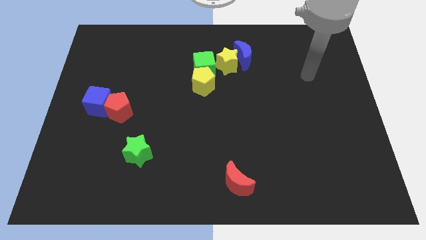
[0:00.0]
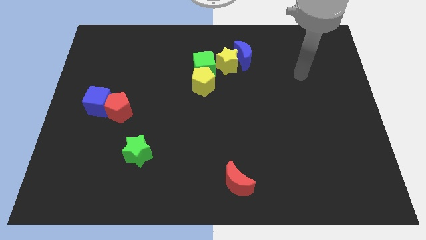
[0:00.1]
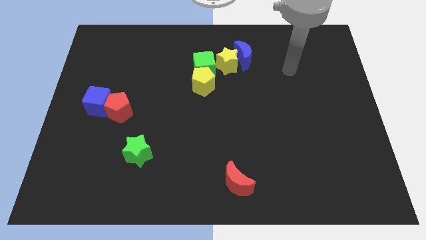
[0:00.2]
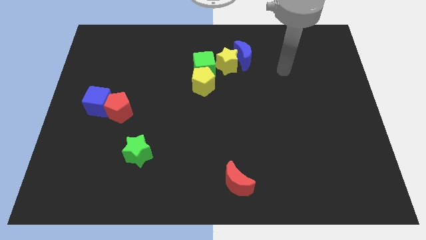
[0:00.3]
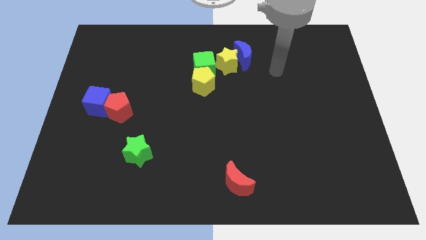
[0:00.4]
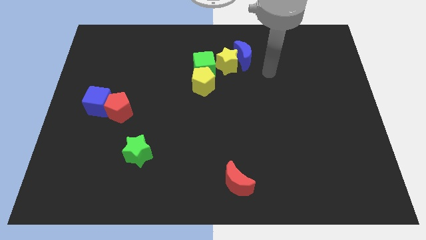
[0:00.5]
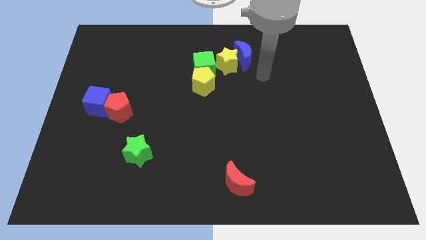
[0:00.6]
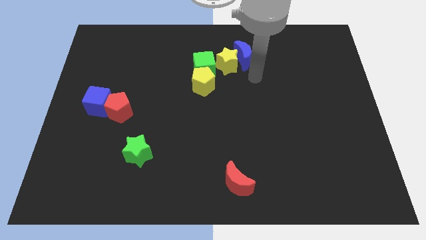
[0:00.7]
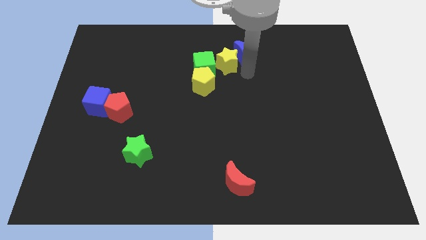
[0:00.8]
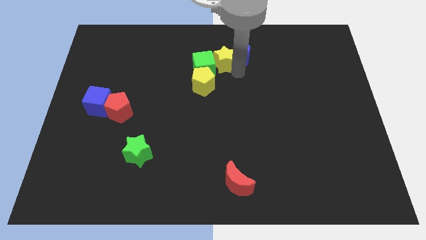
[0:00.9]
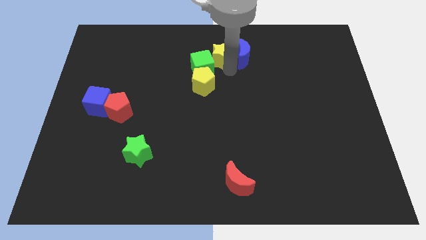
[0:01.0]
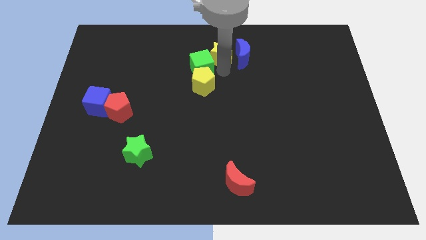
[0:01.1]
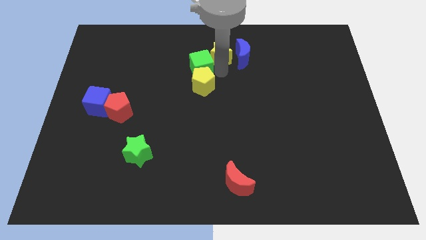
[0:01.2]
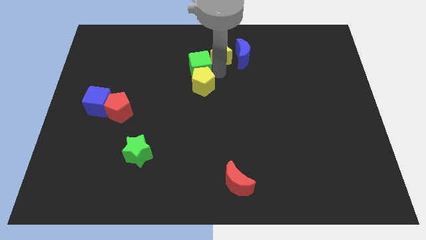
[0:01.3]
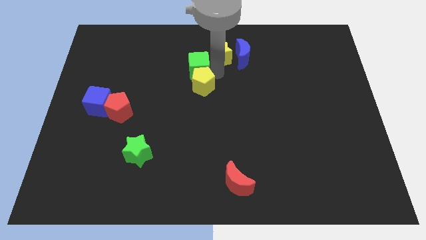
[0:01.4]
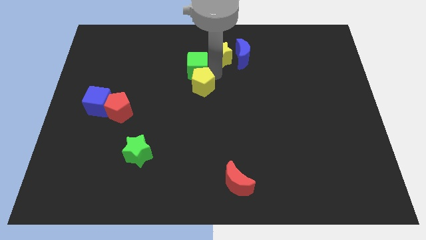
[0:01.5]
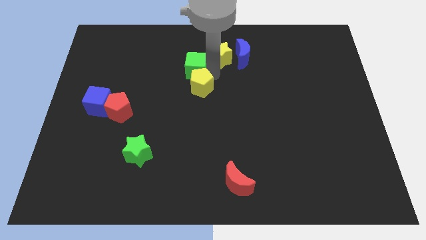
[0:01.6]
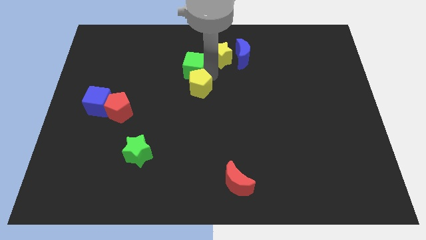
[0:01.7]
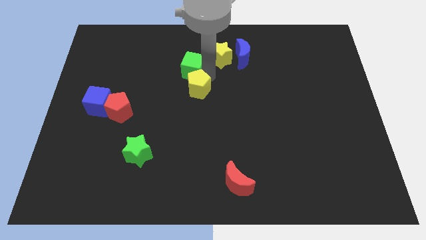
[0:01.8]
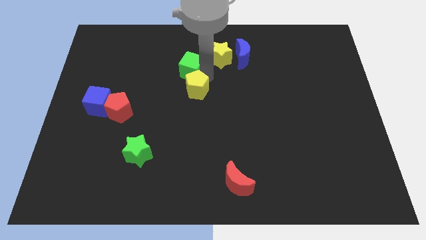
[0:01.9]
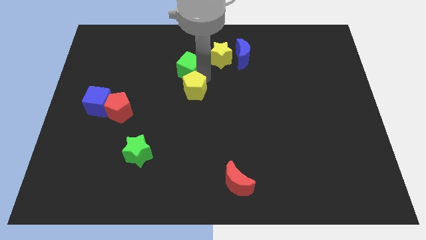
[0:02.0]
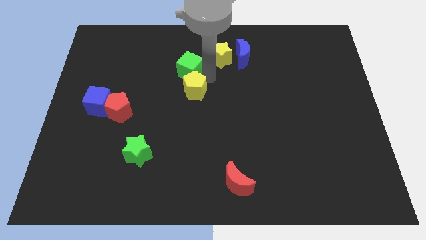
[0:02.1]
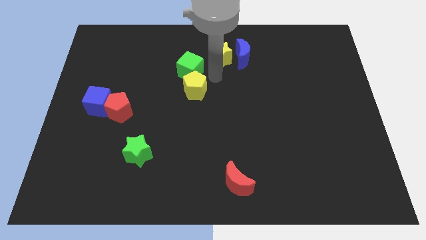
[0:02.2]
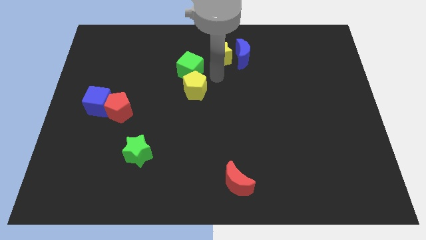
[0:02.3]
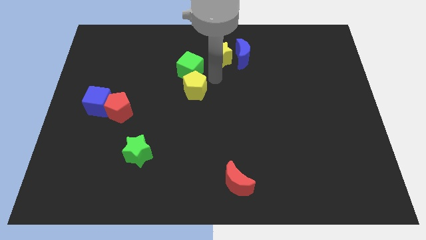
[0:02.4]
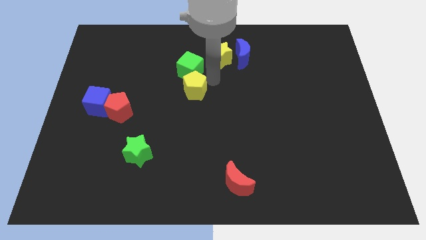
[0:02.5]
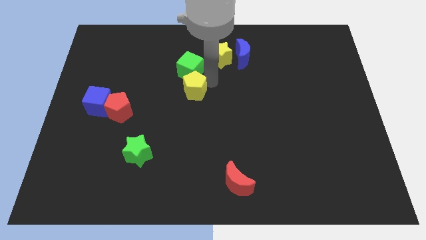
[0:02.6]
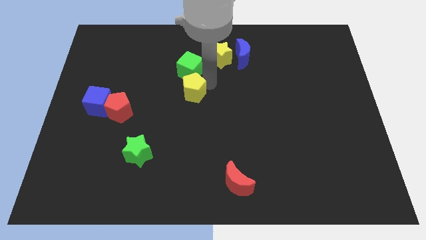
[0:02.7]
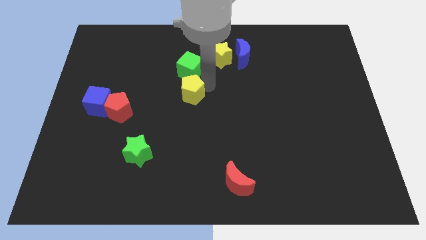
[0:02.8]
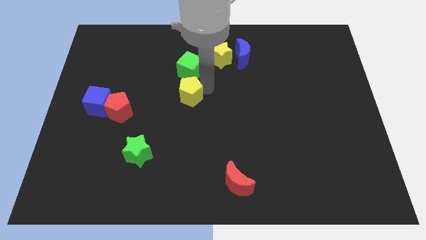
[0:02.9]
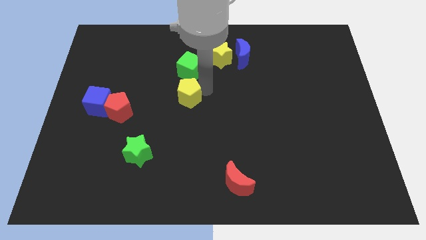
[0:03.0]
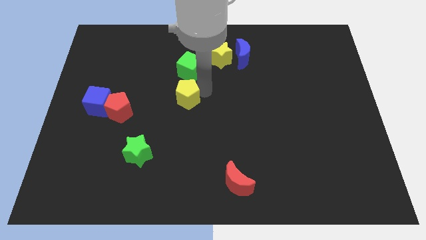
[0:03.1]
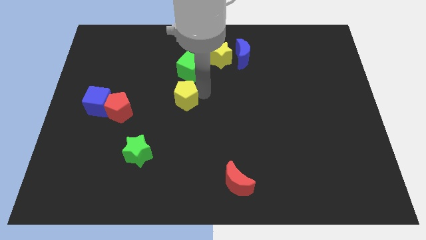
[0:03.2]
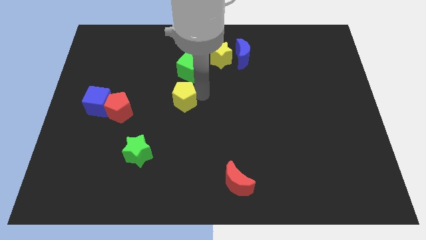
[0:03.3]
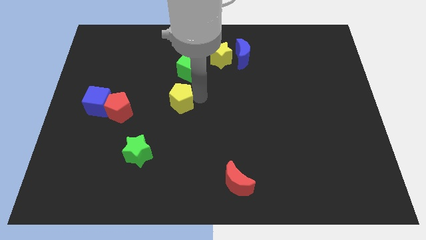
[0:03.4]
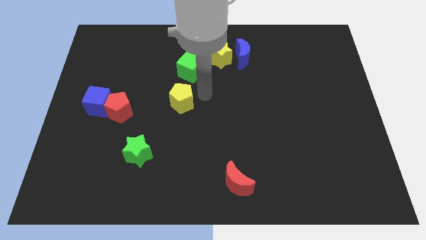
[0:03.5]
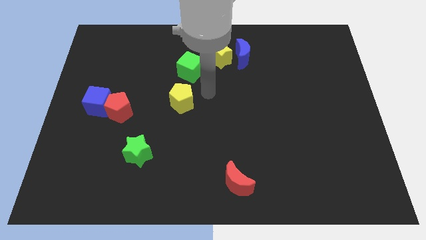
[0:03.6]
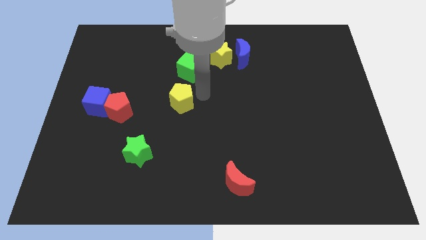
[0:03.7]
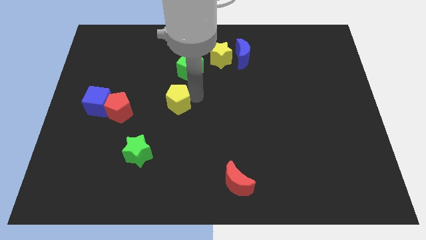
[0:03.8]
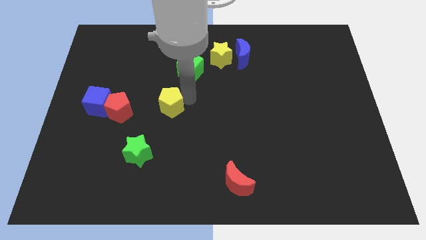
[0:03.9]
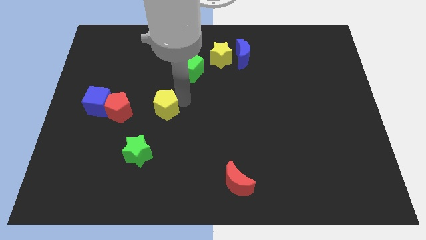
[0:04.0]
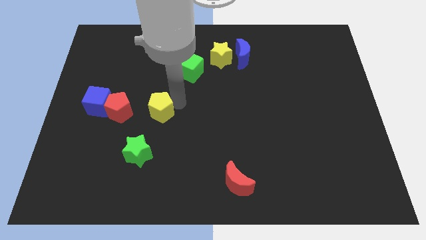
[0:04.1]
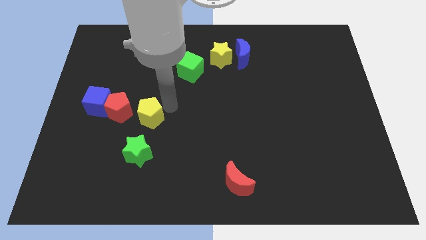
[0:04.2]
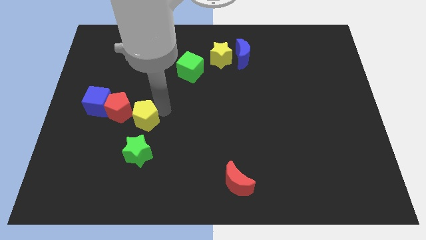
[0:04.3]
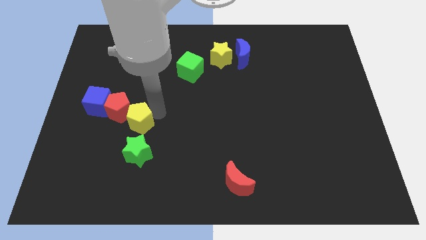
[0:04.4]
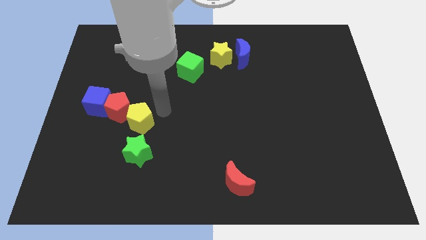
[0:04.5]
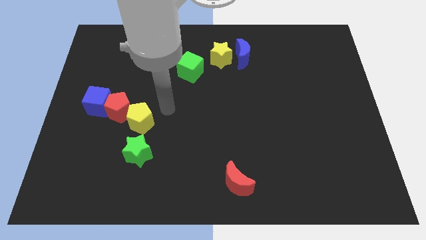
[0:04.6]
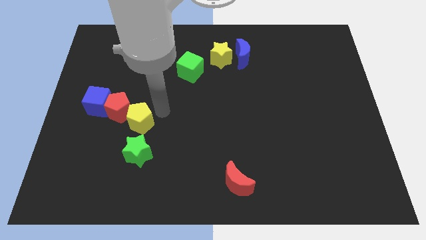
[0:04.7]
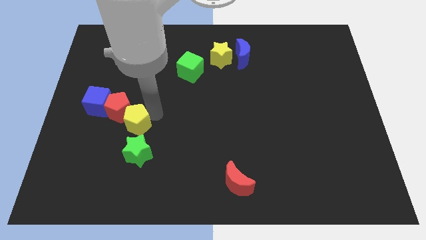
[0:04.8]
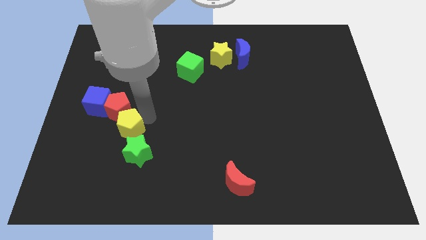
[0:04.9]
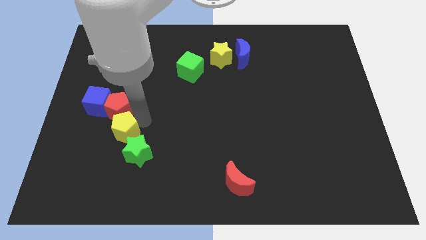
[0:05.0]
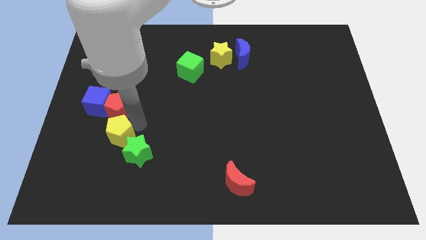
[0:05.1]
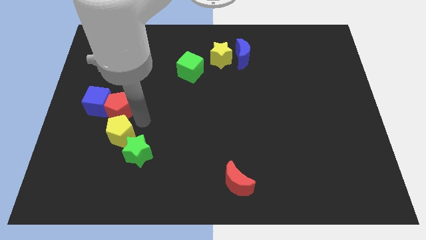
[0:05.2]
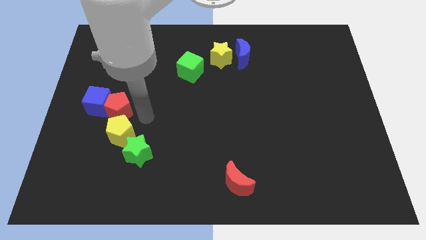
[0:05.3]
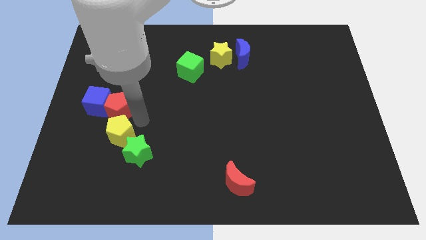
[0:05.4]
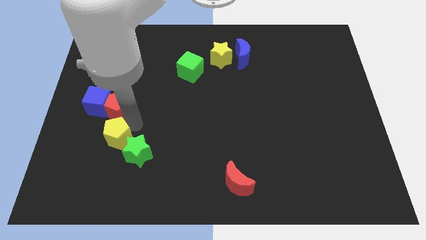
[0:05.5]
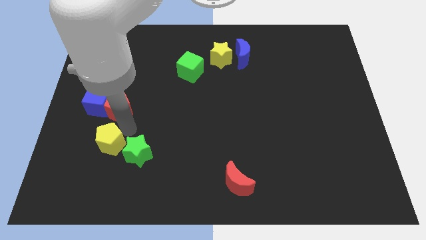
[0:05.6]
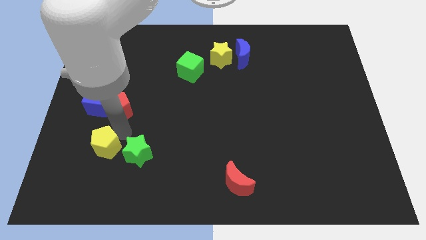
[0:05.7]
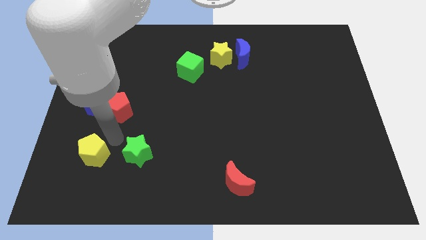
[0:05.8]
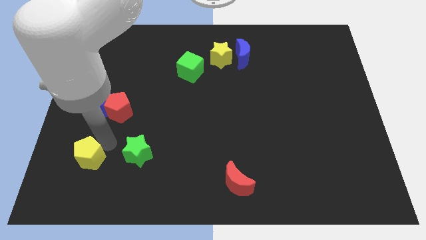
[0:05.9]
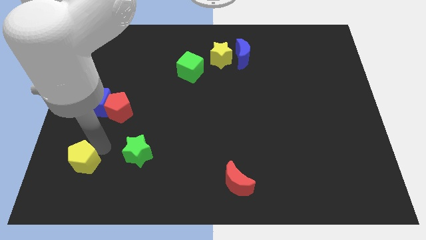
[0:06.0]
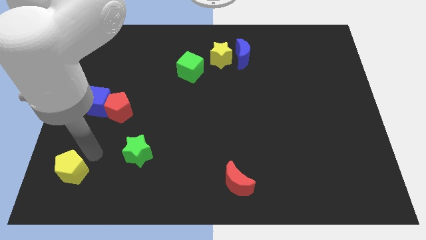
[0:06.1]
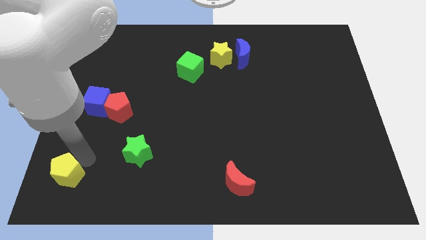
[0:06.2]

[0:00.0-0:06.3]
slide the yellow pentagon to the lower left corner

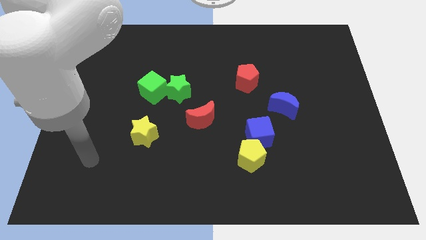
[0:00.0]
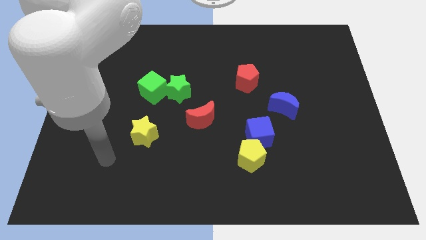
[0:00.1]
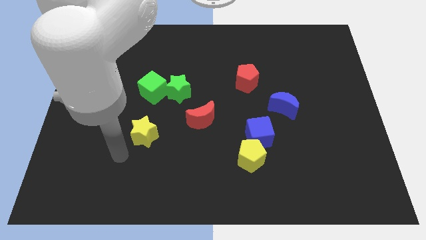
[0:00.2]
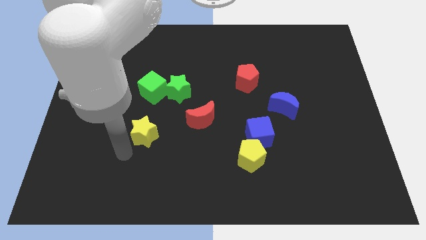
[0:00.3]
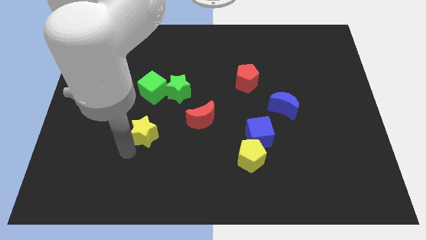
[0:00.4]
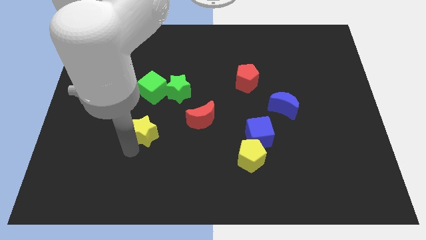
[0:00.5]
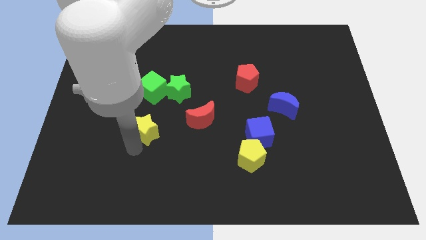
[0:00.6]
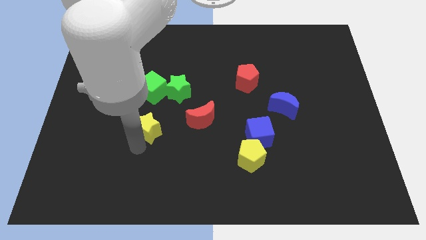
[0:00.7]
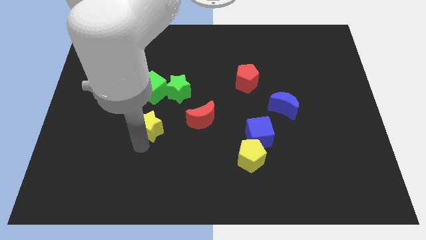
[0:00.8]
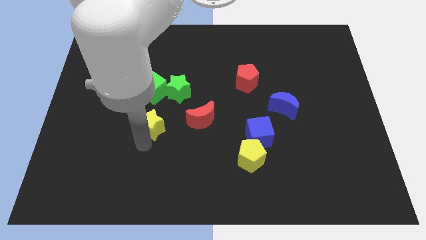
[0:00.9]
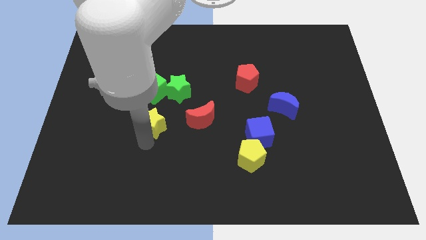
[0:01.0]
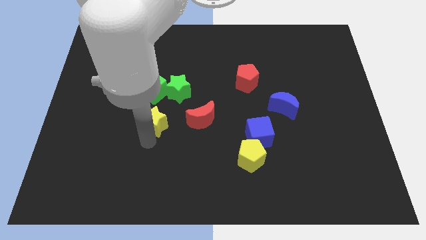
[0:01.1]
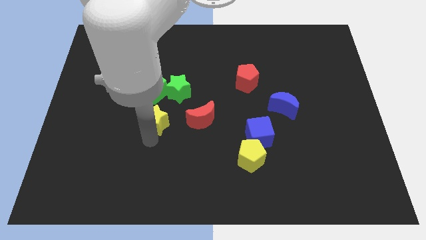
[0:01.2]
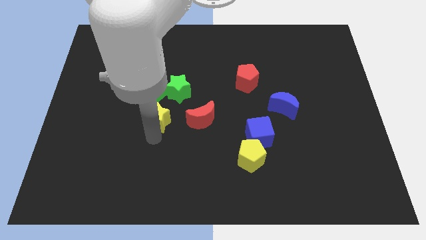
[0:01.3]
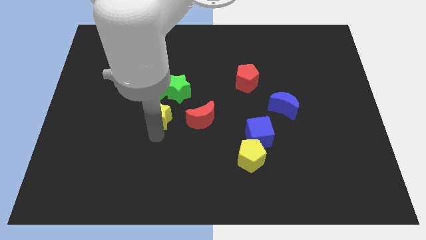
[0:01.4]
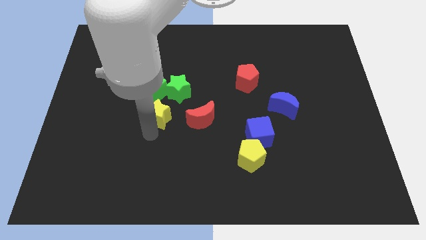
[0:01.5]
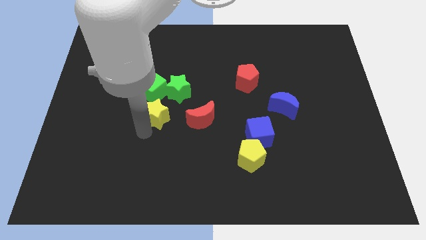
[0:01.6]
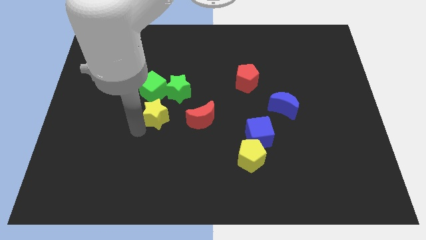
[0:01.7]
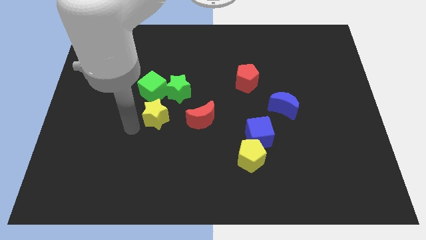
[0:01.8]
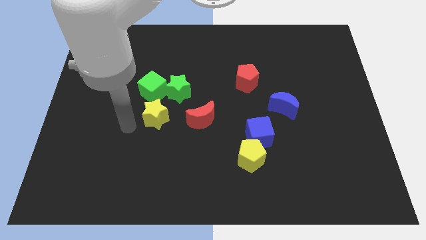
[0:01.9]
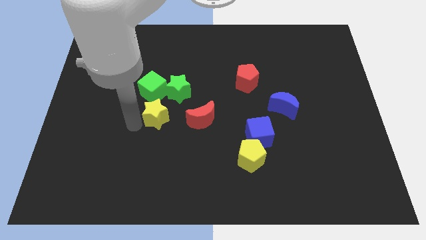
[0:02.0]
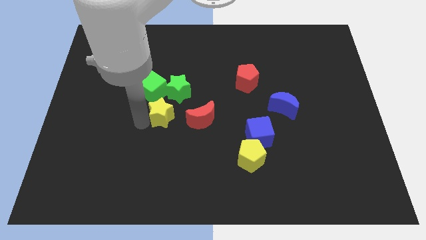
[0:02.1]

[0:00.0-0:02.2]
put the yellow star to the middle of the board
